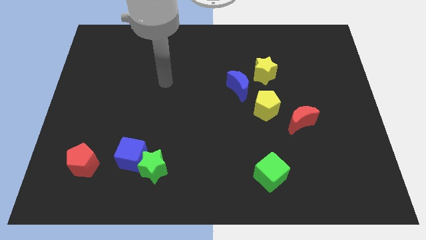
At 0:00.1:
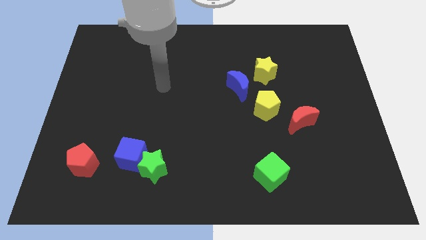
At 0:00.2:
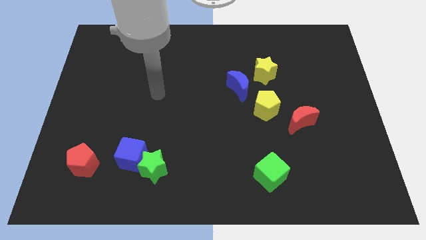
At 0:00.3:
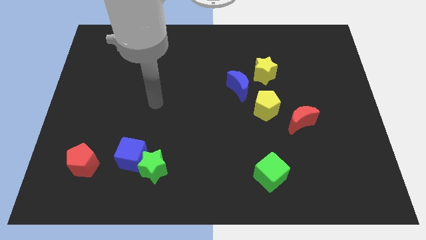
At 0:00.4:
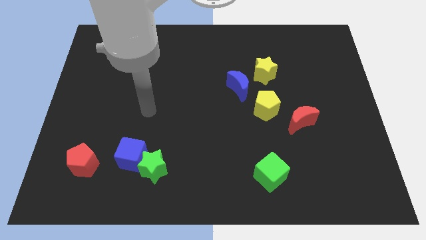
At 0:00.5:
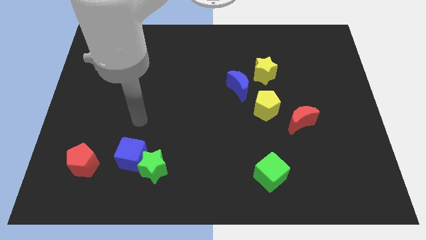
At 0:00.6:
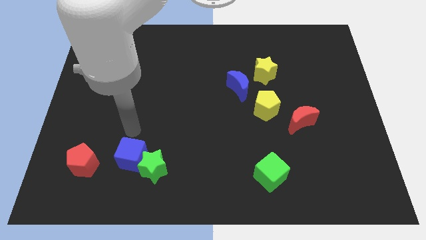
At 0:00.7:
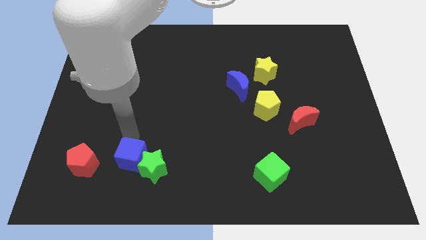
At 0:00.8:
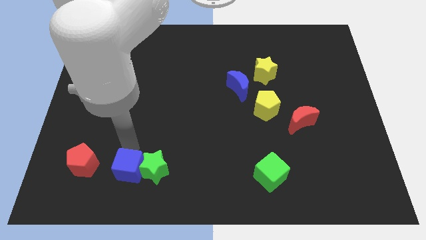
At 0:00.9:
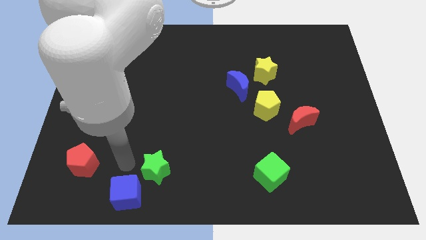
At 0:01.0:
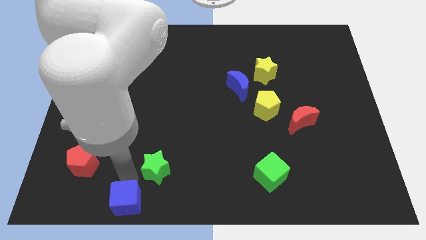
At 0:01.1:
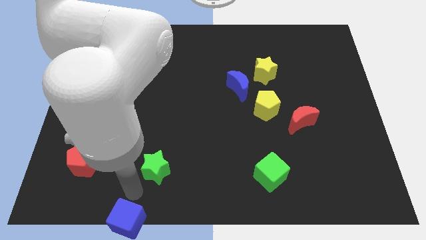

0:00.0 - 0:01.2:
move the green star away from the blue cube

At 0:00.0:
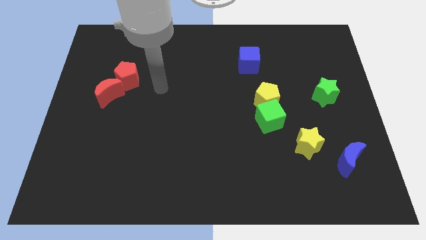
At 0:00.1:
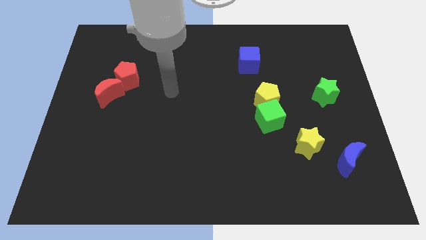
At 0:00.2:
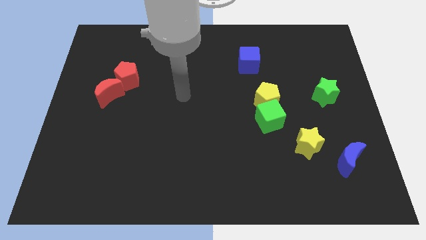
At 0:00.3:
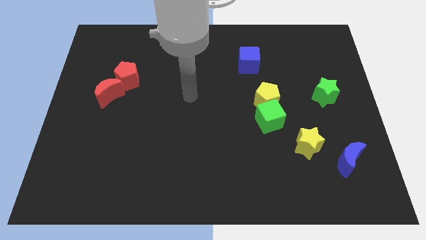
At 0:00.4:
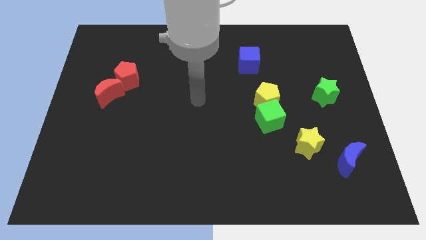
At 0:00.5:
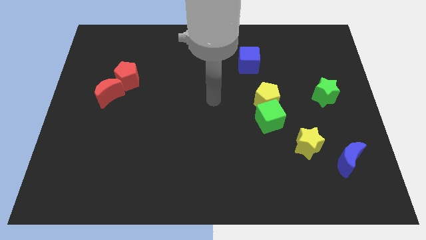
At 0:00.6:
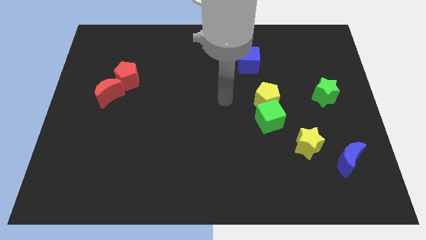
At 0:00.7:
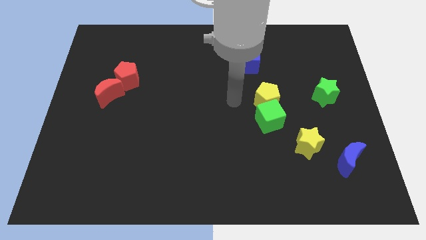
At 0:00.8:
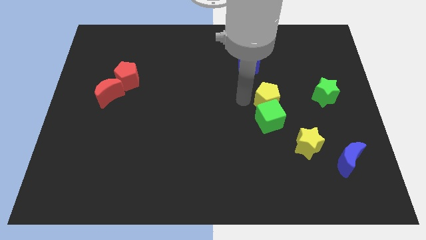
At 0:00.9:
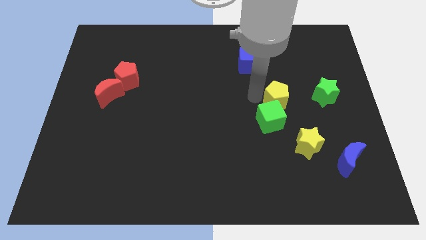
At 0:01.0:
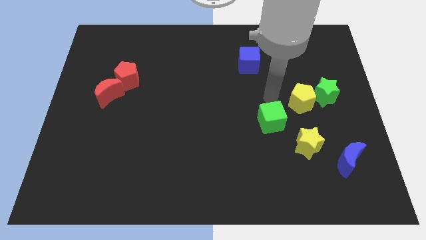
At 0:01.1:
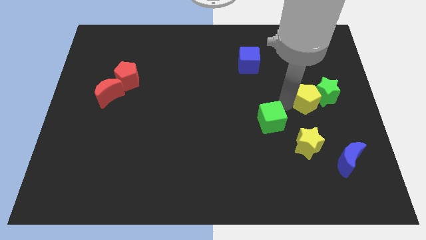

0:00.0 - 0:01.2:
move the green cube away from the yellow pentagon

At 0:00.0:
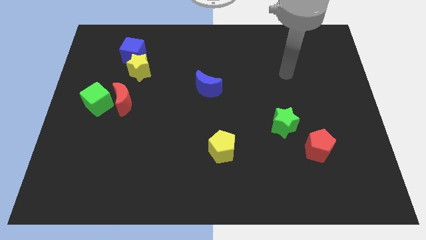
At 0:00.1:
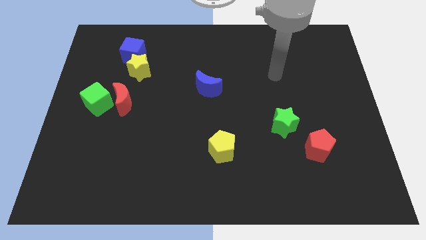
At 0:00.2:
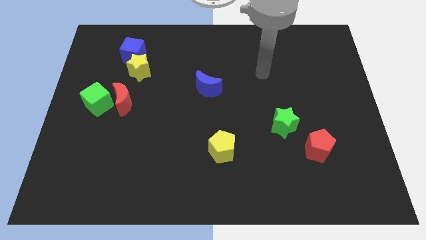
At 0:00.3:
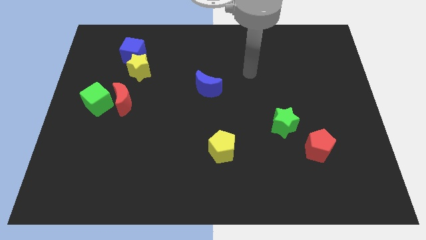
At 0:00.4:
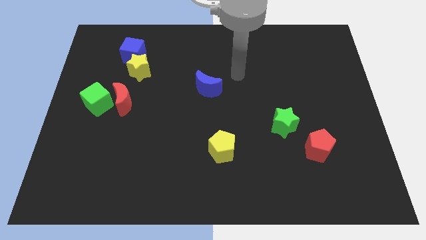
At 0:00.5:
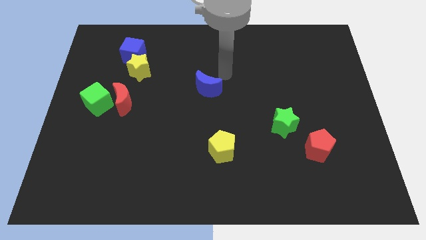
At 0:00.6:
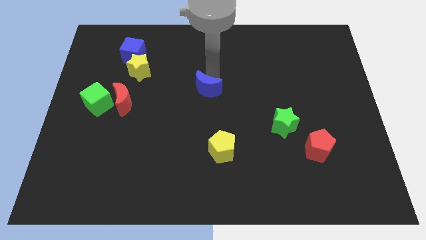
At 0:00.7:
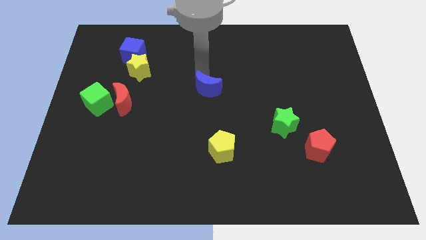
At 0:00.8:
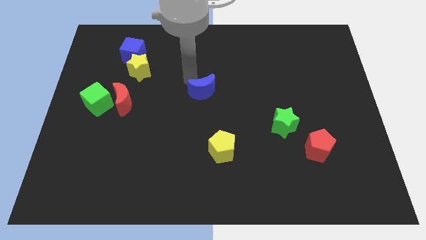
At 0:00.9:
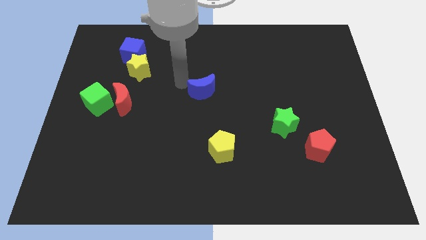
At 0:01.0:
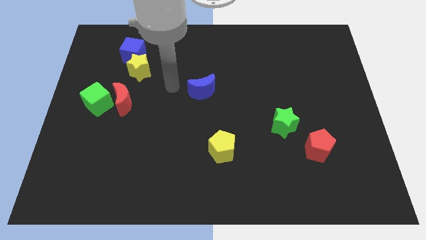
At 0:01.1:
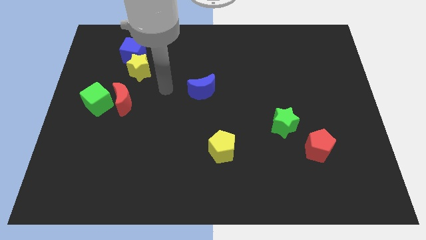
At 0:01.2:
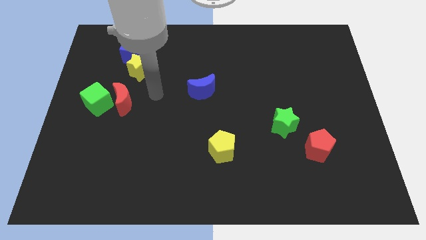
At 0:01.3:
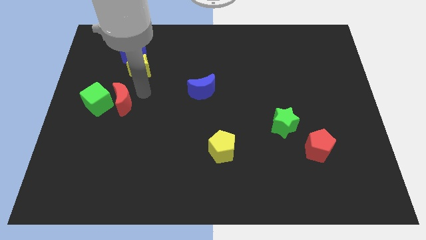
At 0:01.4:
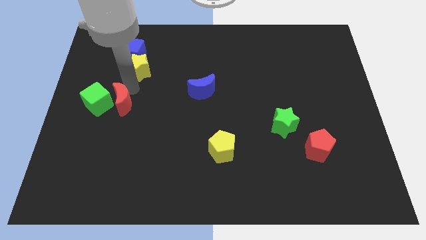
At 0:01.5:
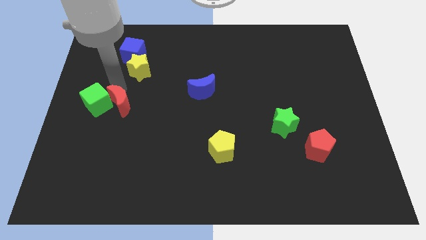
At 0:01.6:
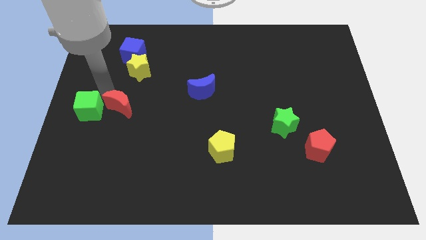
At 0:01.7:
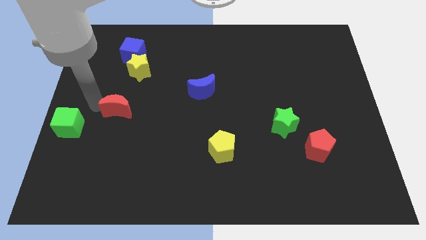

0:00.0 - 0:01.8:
move the red moon away from the green cube

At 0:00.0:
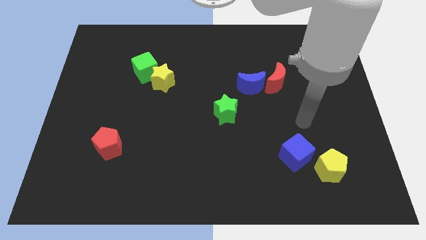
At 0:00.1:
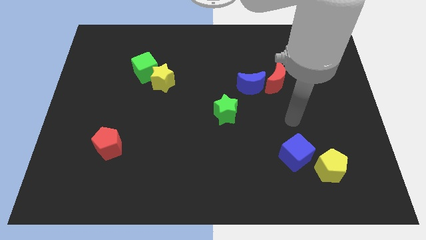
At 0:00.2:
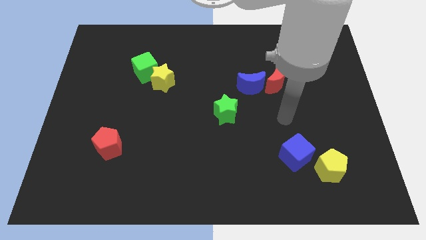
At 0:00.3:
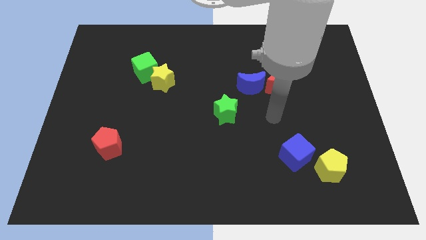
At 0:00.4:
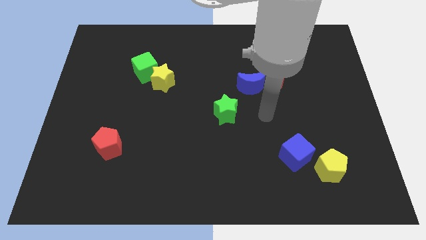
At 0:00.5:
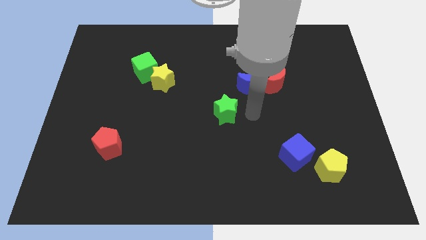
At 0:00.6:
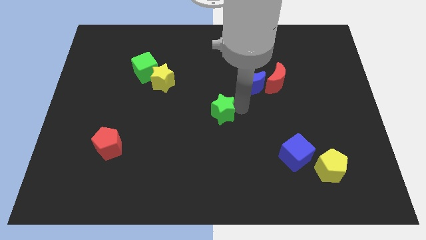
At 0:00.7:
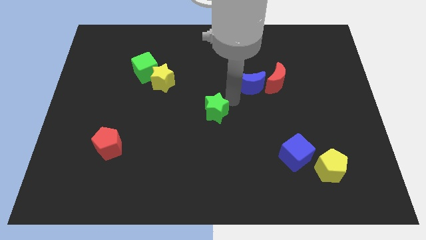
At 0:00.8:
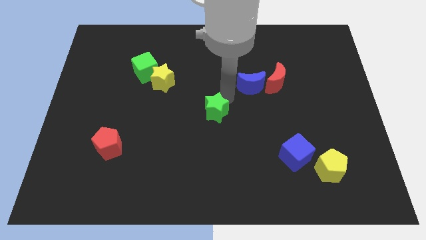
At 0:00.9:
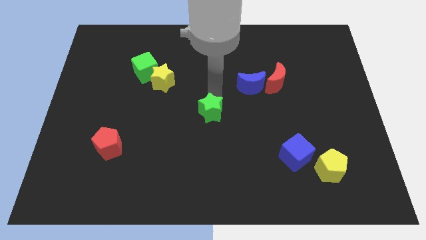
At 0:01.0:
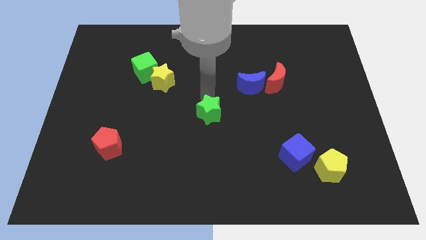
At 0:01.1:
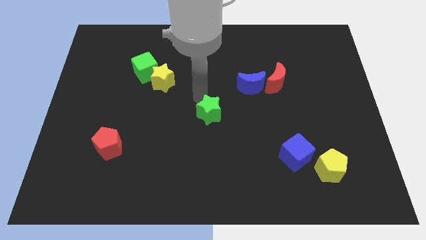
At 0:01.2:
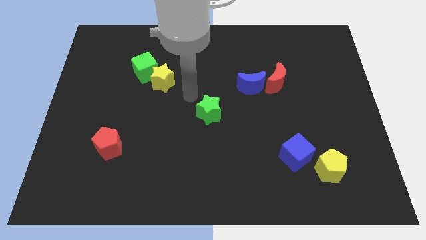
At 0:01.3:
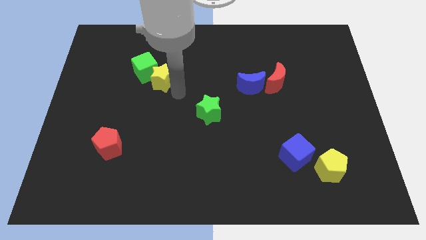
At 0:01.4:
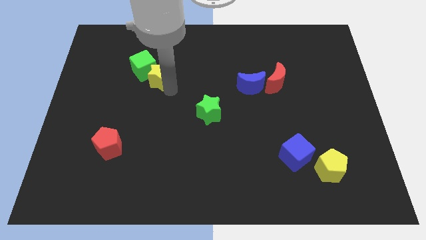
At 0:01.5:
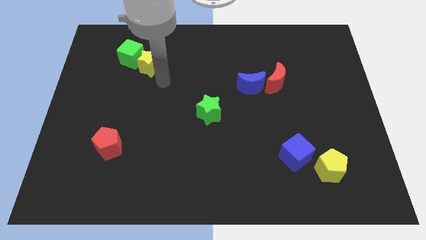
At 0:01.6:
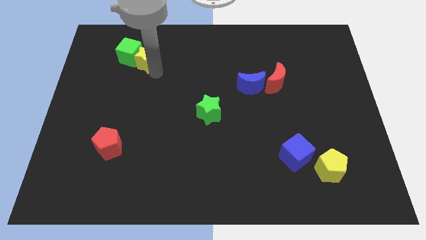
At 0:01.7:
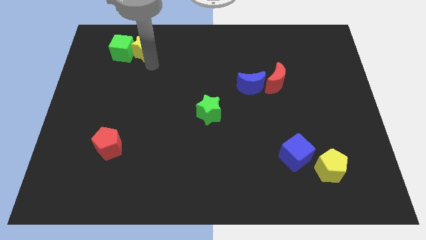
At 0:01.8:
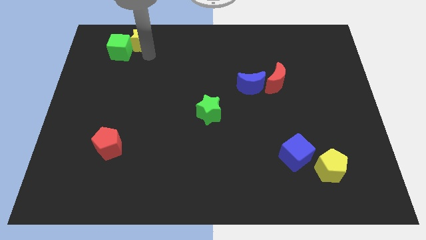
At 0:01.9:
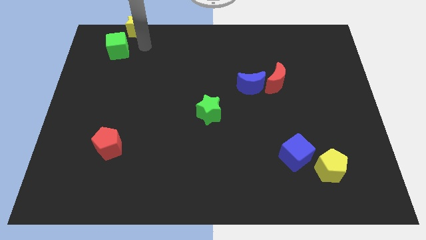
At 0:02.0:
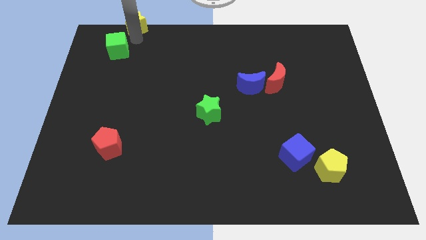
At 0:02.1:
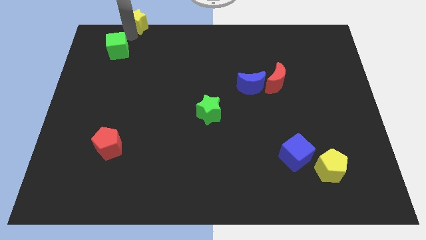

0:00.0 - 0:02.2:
separate the green cube from the yellow star

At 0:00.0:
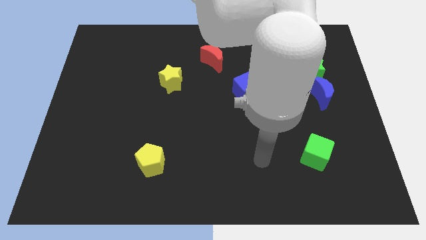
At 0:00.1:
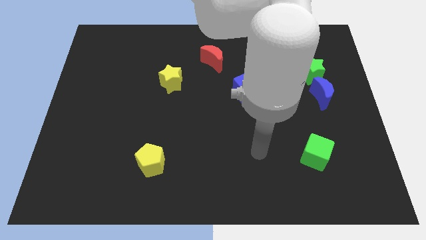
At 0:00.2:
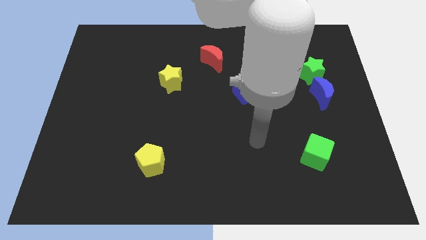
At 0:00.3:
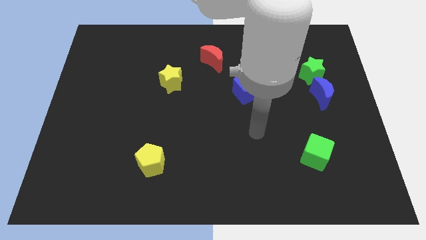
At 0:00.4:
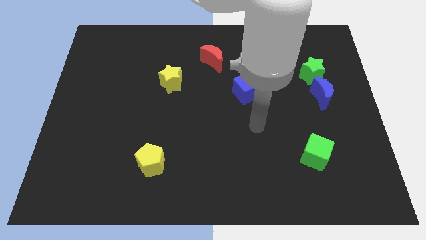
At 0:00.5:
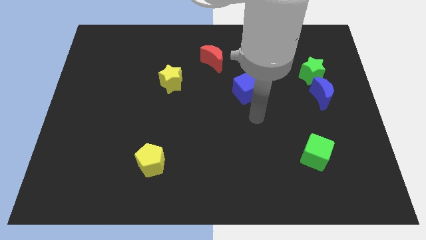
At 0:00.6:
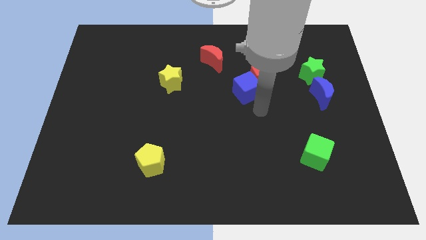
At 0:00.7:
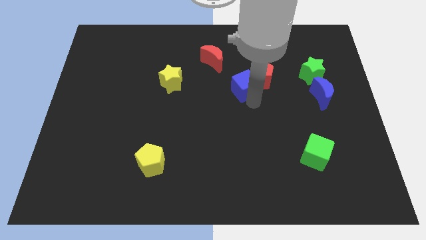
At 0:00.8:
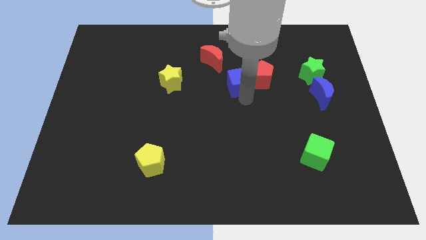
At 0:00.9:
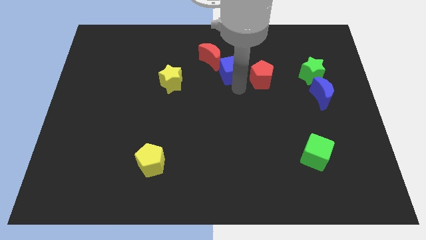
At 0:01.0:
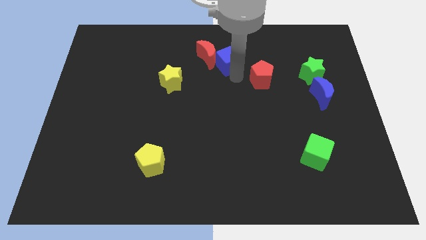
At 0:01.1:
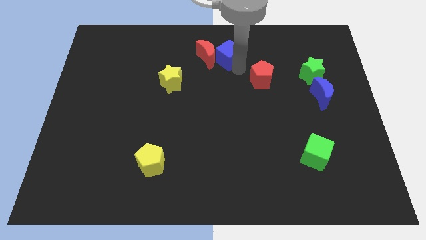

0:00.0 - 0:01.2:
separate the red pentagon from the blue cube

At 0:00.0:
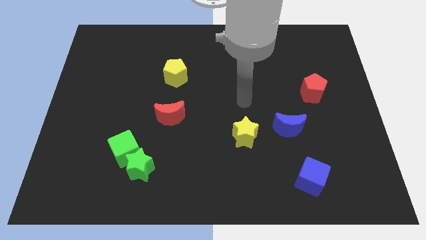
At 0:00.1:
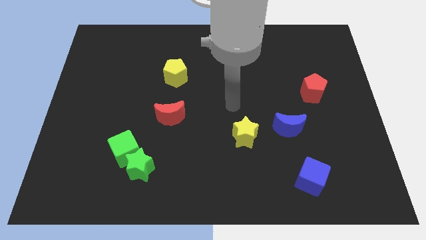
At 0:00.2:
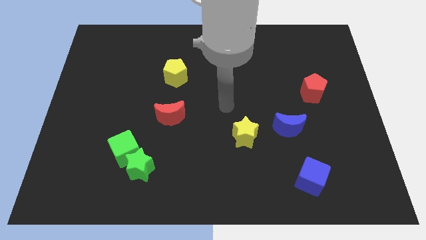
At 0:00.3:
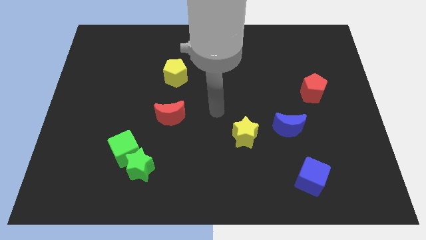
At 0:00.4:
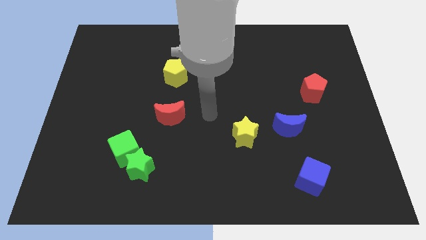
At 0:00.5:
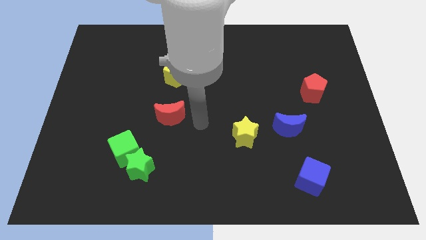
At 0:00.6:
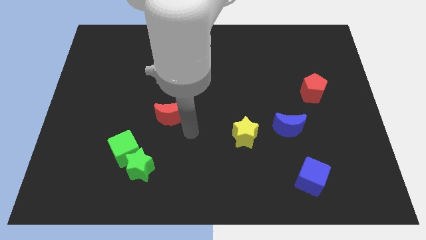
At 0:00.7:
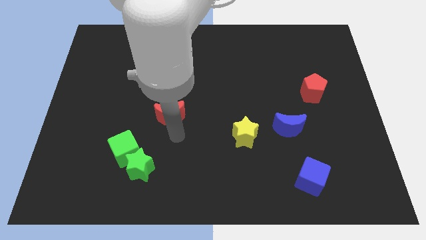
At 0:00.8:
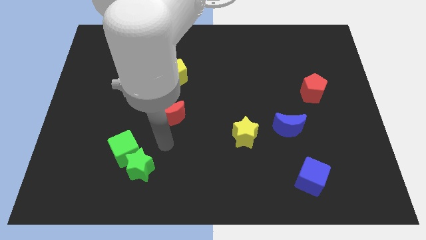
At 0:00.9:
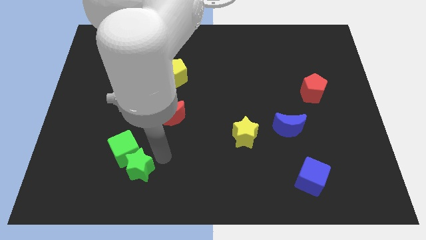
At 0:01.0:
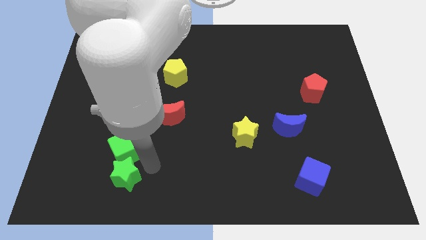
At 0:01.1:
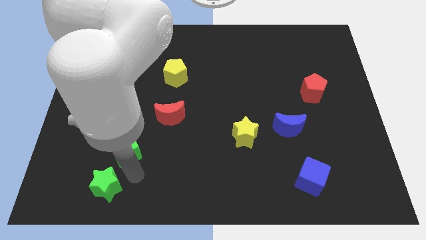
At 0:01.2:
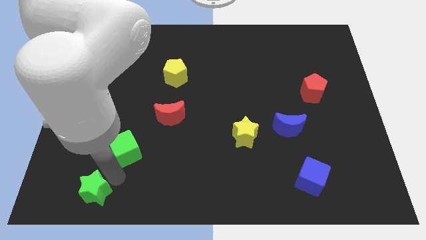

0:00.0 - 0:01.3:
move the green cube away from the green star

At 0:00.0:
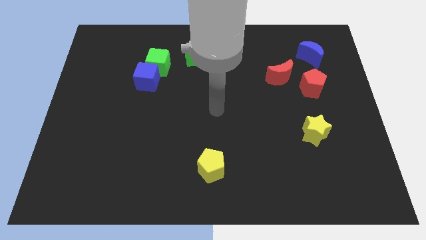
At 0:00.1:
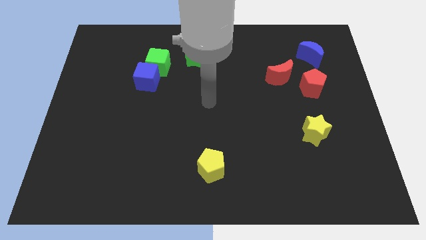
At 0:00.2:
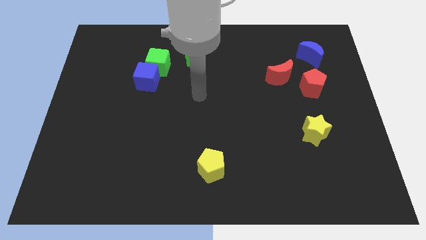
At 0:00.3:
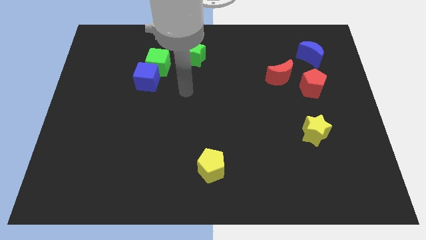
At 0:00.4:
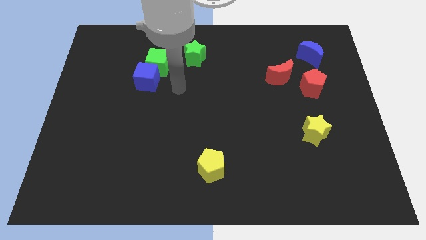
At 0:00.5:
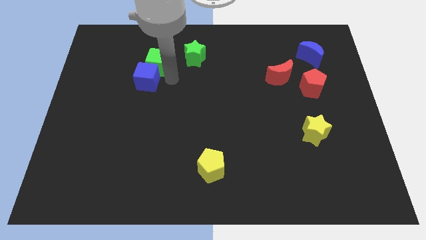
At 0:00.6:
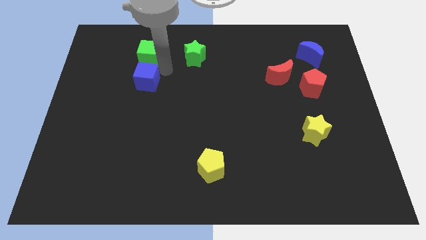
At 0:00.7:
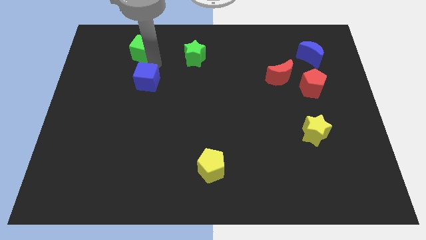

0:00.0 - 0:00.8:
pull the blue cube apart from the green cube
